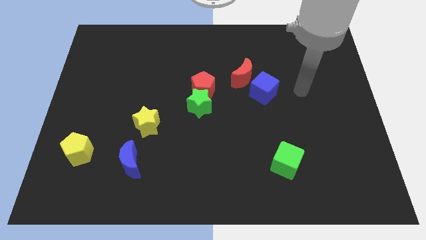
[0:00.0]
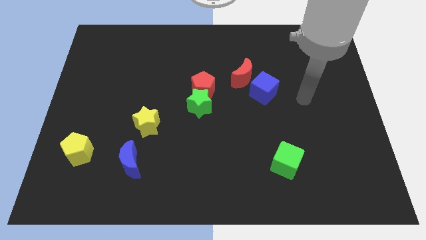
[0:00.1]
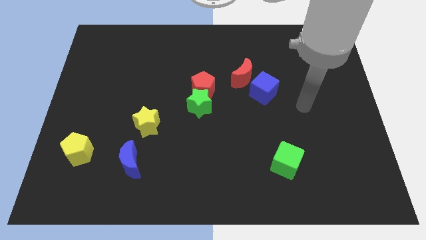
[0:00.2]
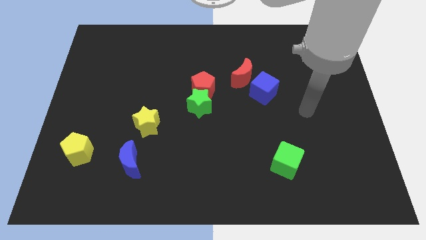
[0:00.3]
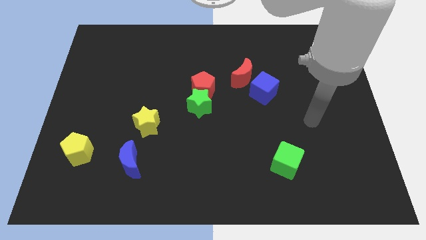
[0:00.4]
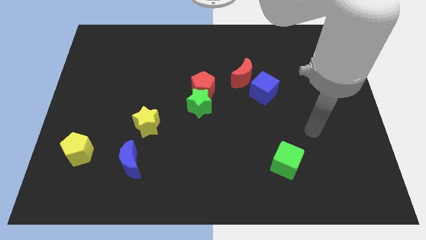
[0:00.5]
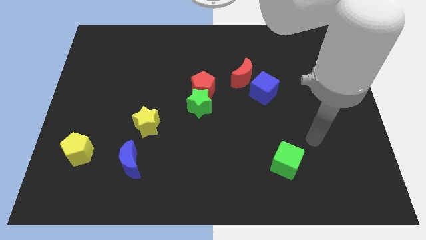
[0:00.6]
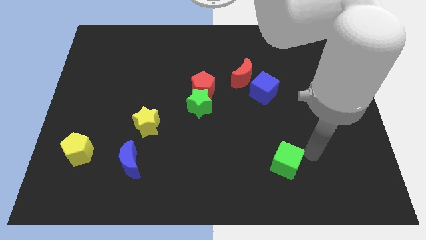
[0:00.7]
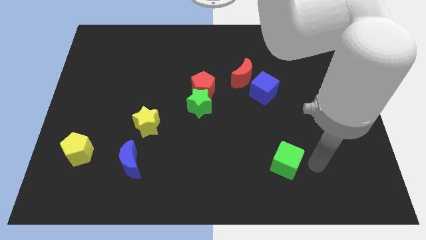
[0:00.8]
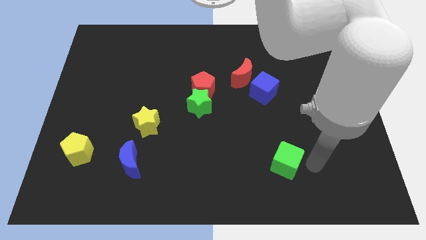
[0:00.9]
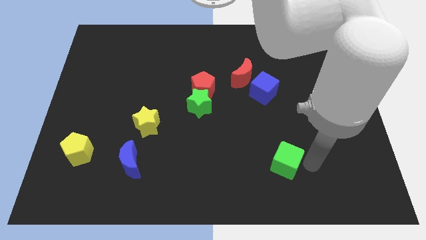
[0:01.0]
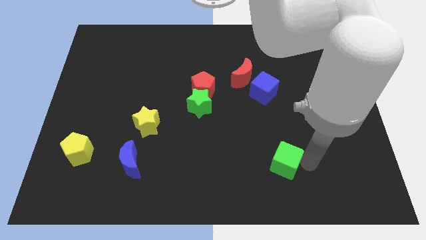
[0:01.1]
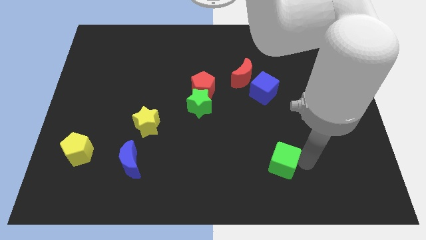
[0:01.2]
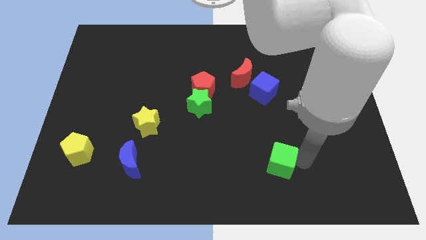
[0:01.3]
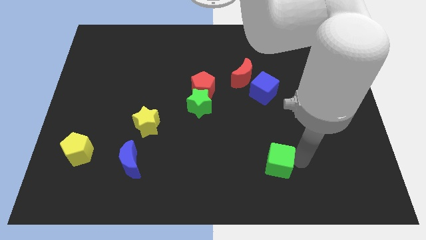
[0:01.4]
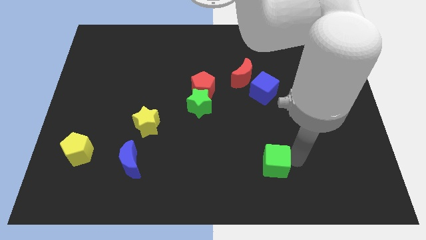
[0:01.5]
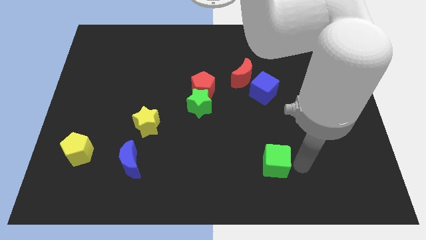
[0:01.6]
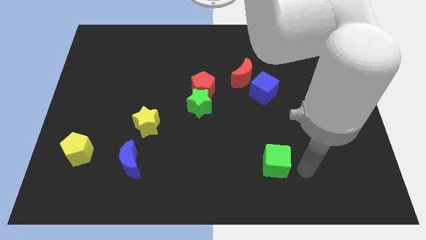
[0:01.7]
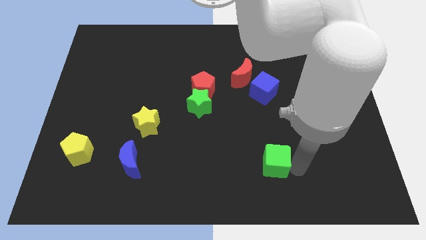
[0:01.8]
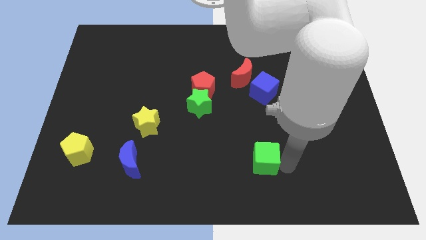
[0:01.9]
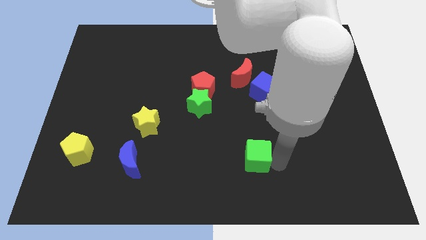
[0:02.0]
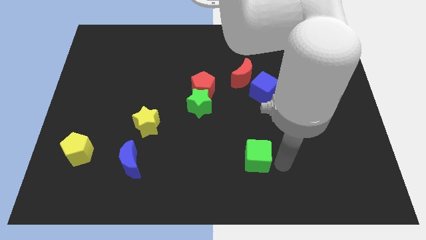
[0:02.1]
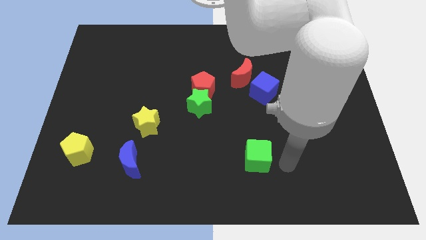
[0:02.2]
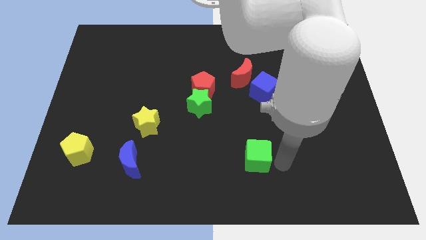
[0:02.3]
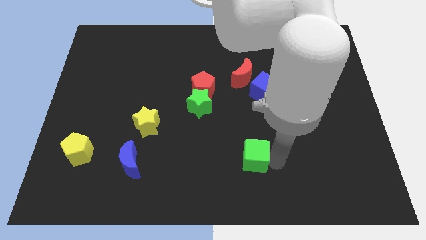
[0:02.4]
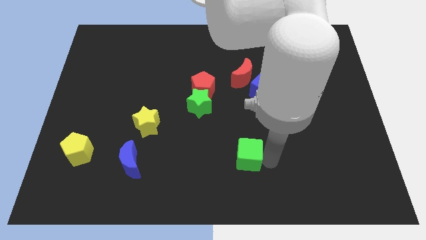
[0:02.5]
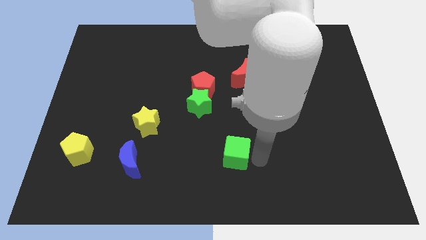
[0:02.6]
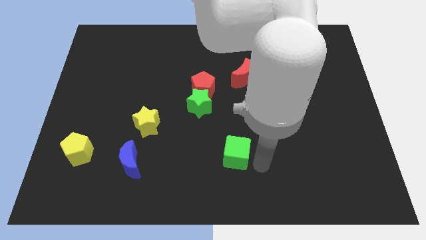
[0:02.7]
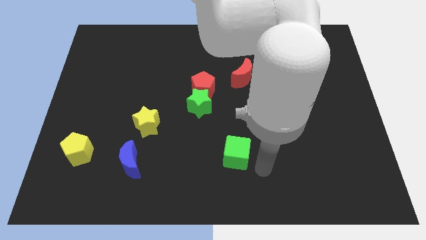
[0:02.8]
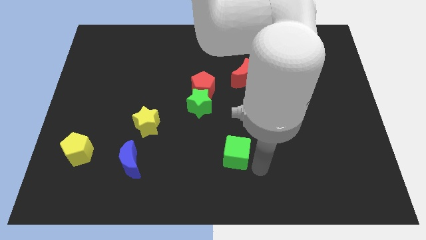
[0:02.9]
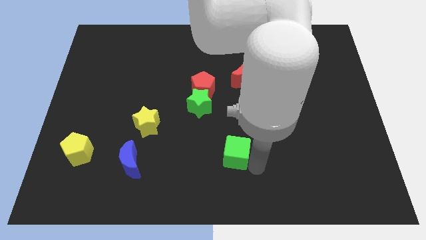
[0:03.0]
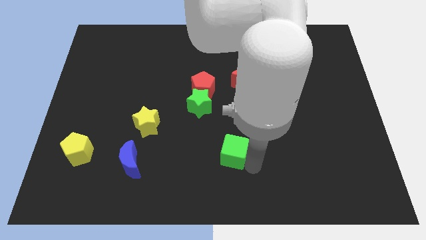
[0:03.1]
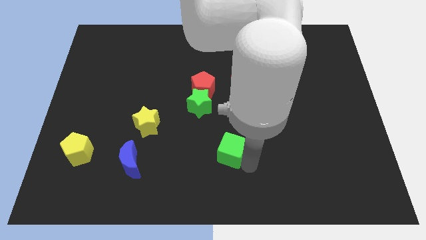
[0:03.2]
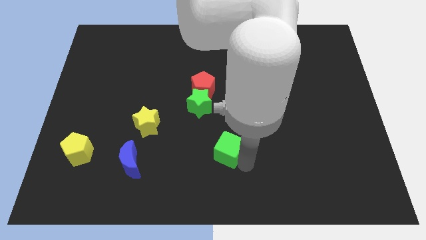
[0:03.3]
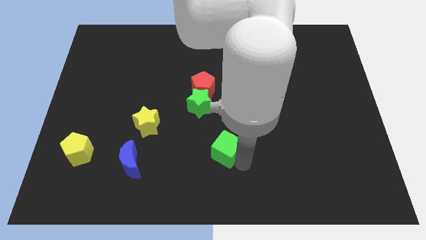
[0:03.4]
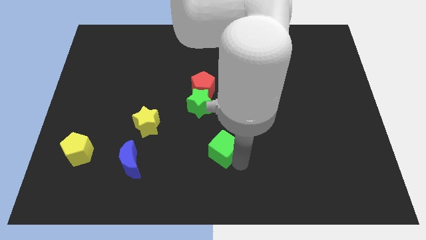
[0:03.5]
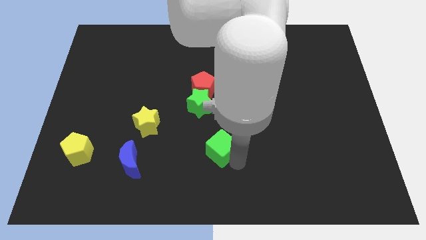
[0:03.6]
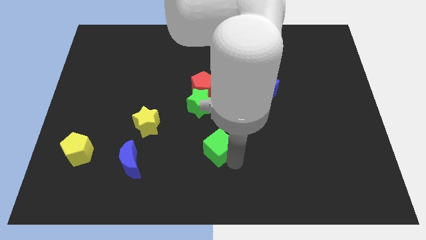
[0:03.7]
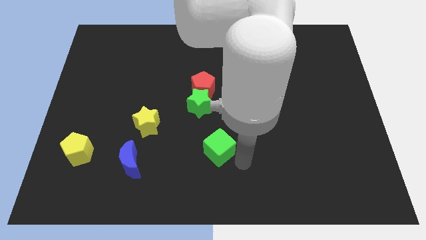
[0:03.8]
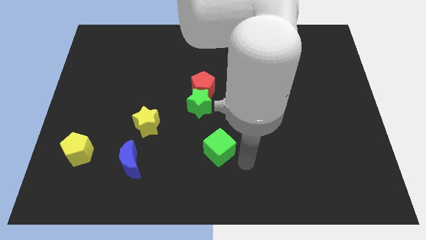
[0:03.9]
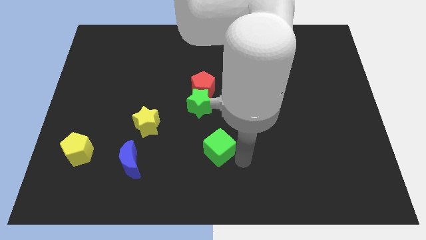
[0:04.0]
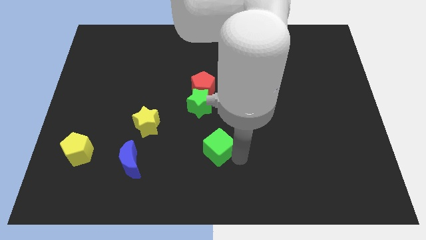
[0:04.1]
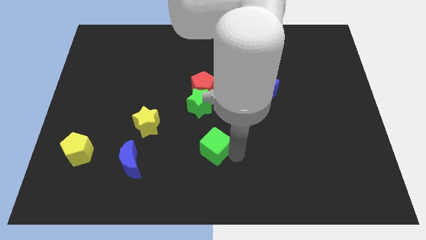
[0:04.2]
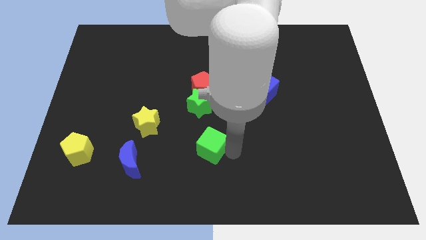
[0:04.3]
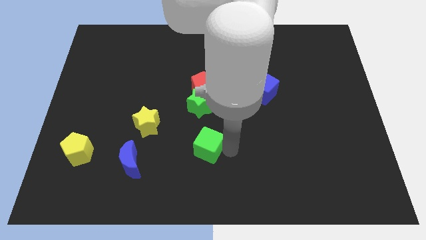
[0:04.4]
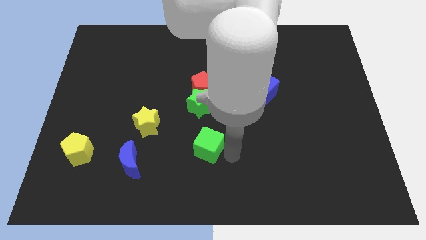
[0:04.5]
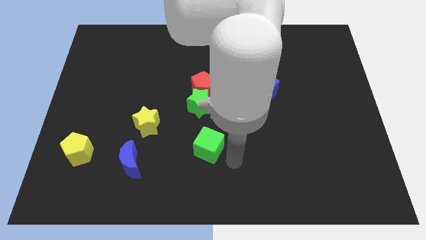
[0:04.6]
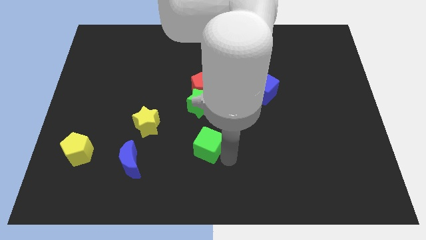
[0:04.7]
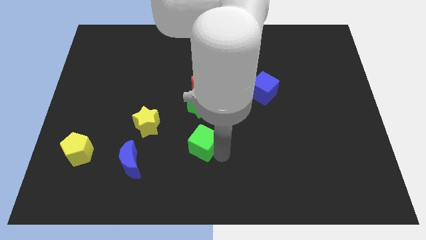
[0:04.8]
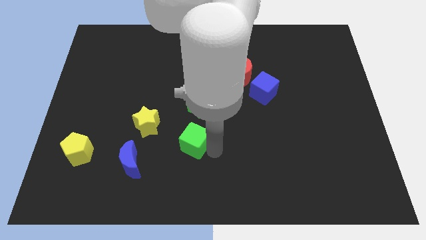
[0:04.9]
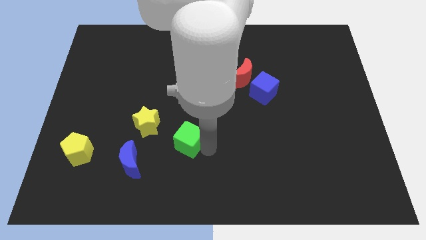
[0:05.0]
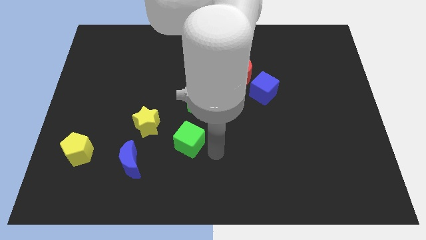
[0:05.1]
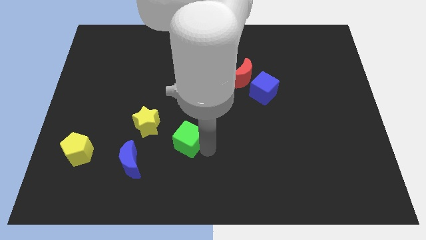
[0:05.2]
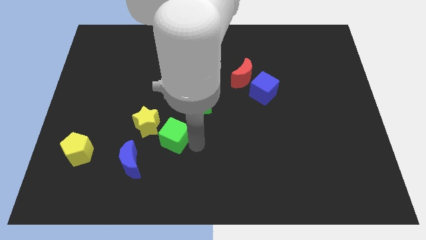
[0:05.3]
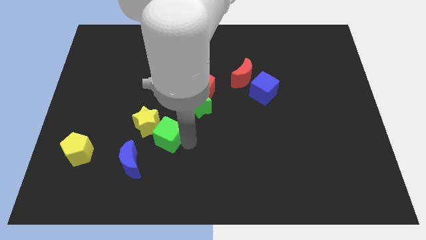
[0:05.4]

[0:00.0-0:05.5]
put the green cube to the yellow star

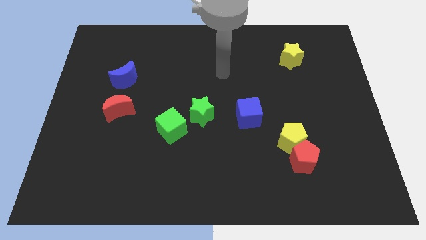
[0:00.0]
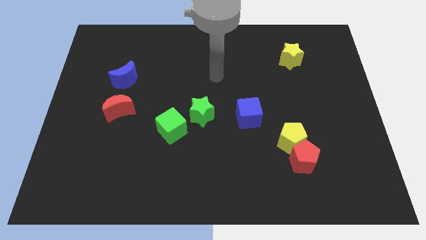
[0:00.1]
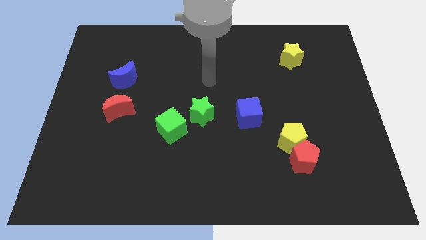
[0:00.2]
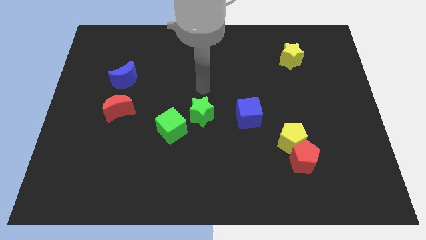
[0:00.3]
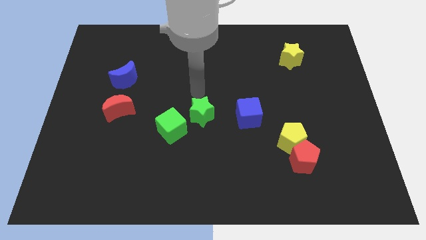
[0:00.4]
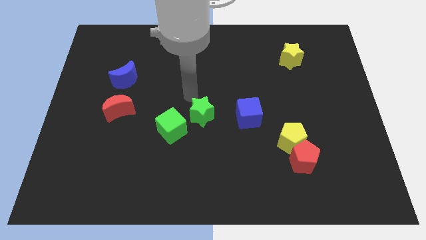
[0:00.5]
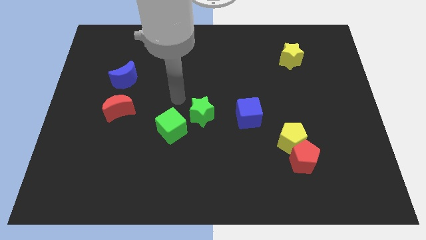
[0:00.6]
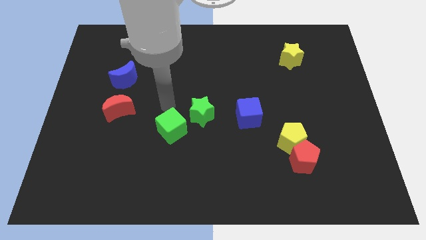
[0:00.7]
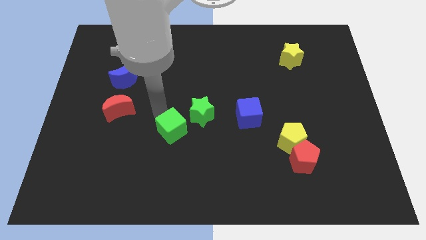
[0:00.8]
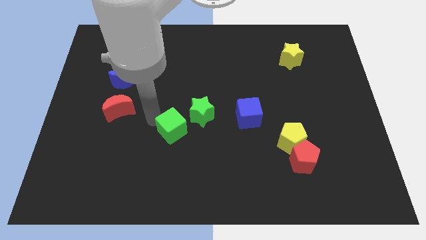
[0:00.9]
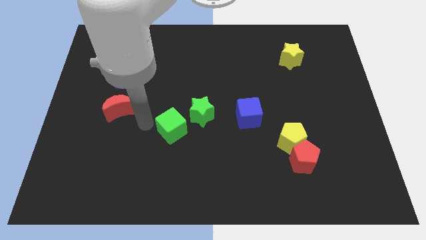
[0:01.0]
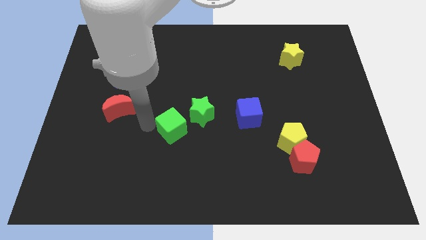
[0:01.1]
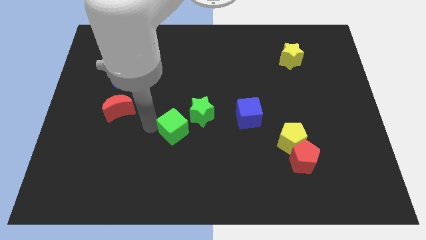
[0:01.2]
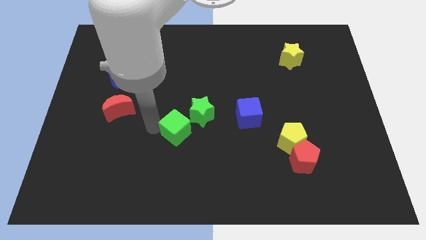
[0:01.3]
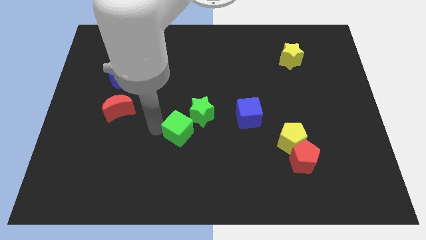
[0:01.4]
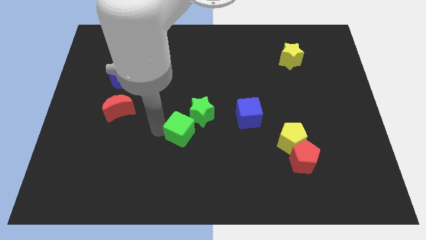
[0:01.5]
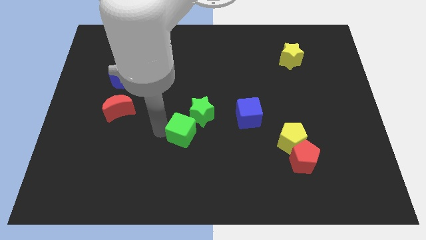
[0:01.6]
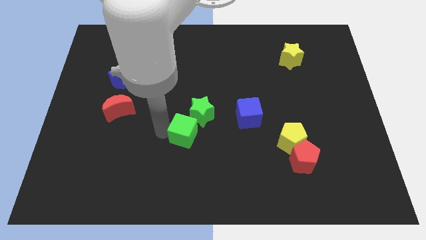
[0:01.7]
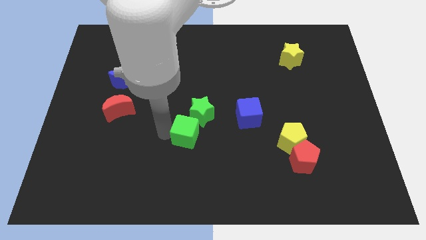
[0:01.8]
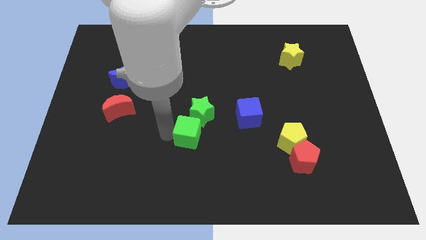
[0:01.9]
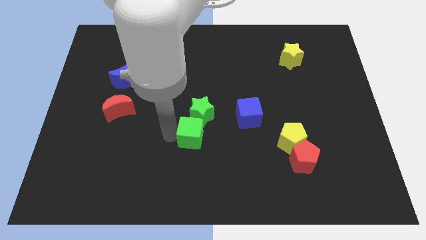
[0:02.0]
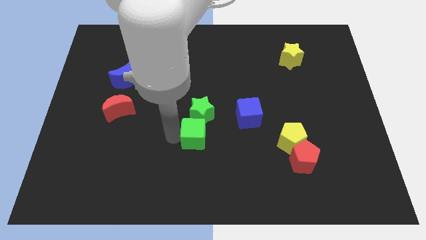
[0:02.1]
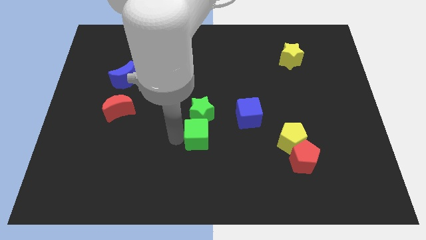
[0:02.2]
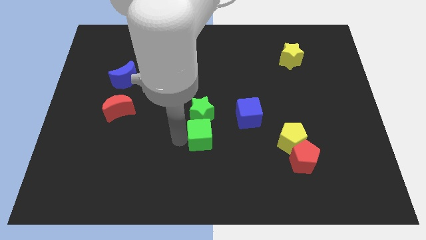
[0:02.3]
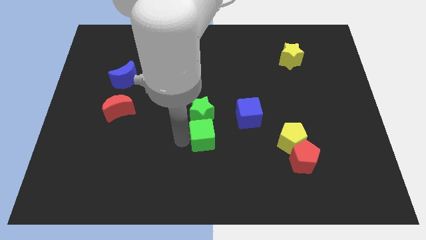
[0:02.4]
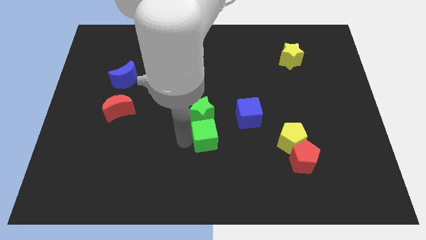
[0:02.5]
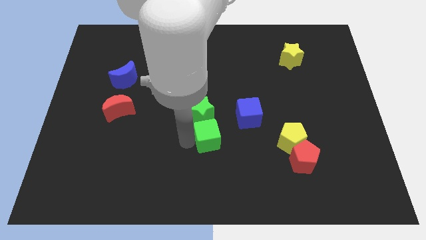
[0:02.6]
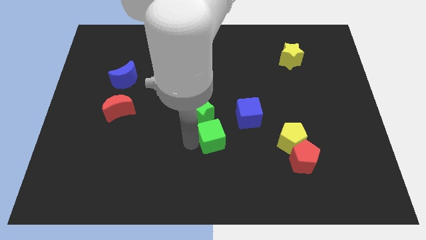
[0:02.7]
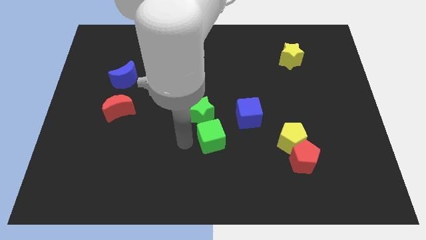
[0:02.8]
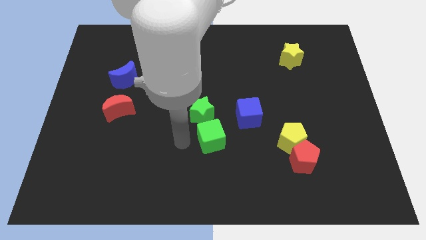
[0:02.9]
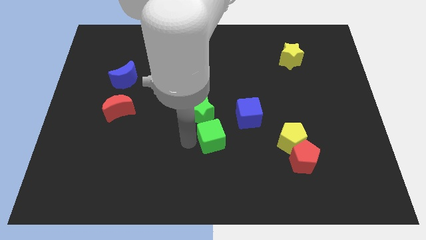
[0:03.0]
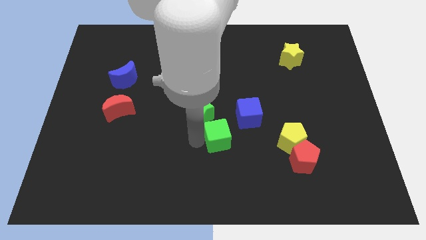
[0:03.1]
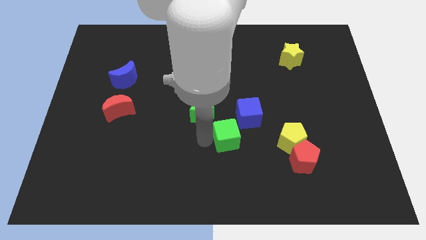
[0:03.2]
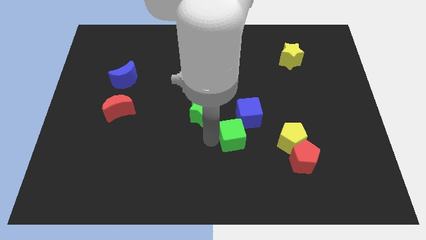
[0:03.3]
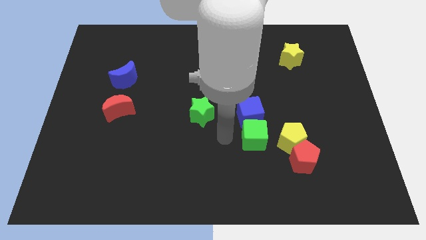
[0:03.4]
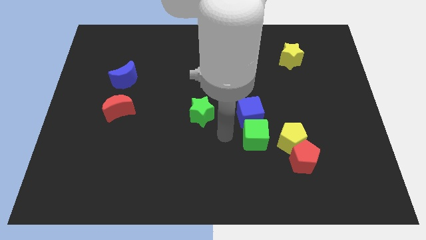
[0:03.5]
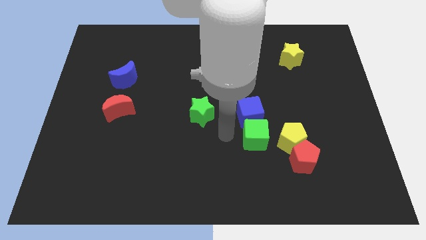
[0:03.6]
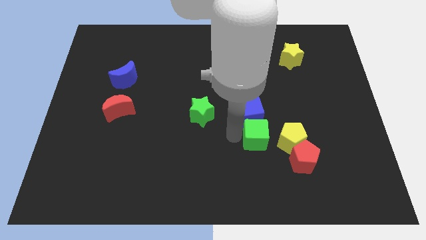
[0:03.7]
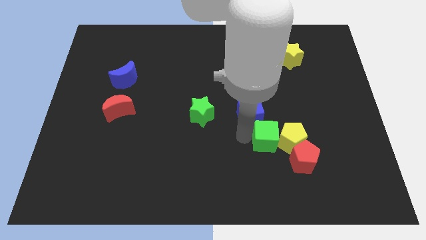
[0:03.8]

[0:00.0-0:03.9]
slide the green cube towards the yellow pentagon
